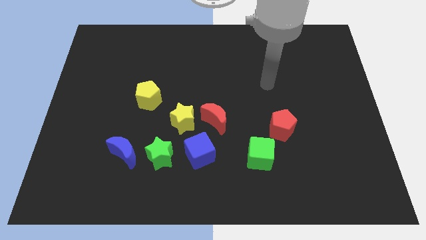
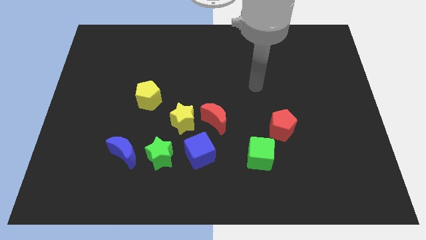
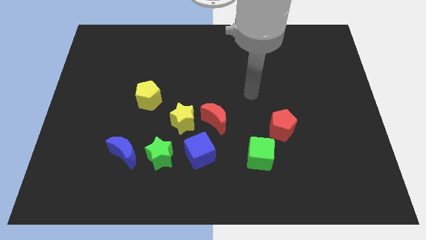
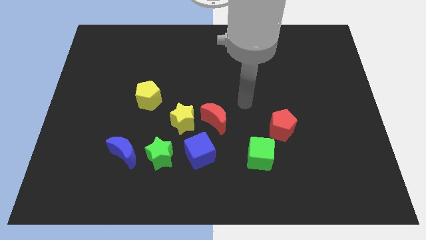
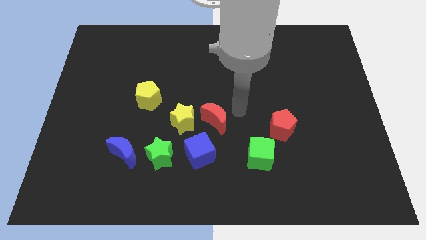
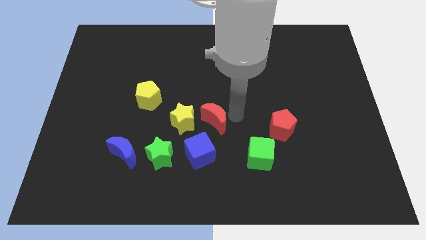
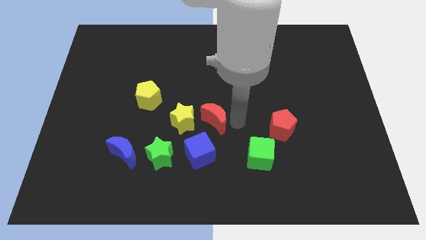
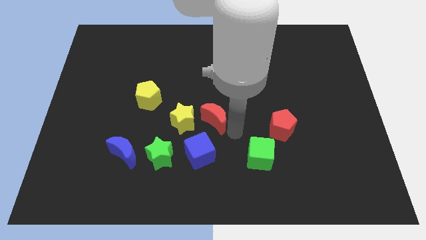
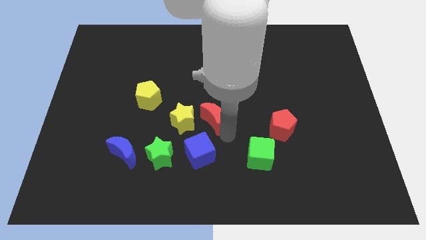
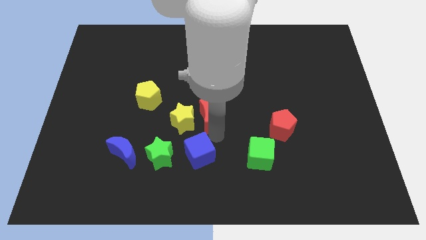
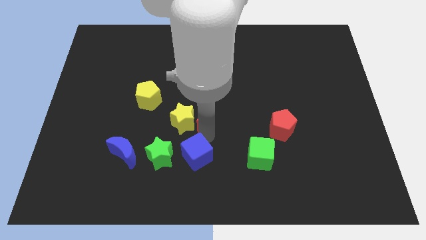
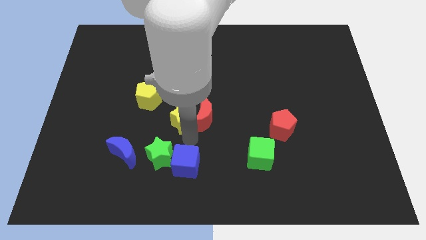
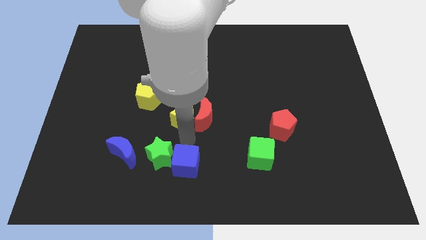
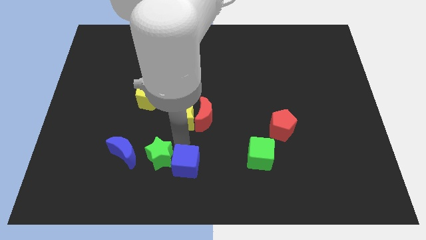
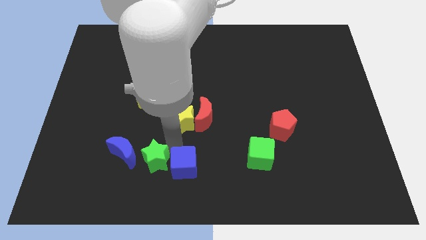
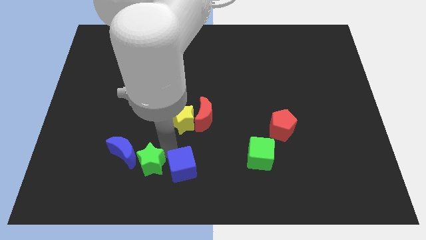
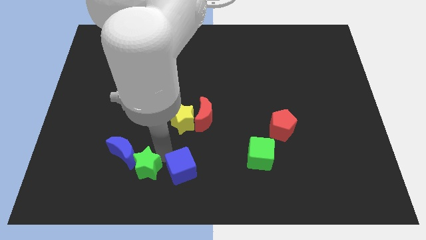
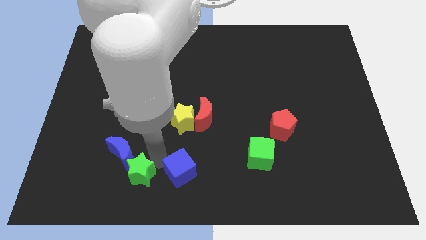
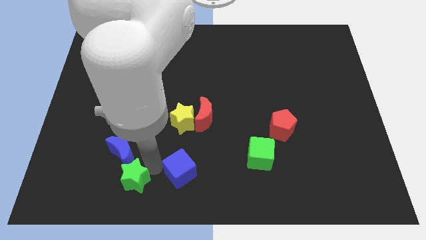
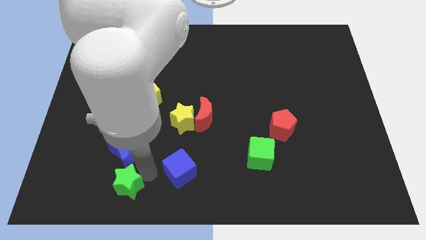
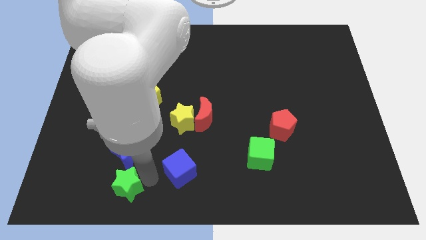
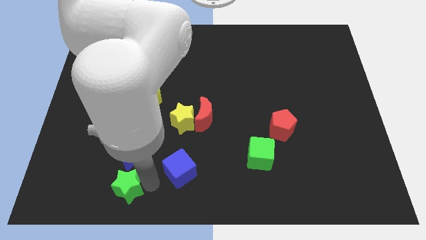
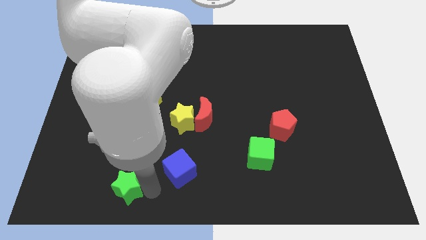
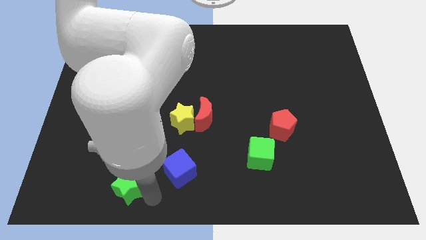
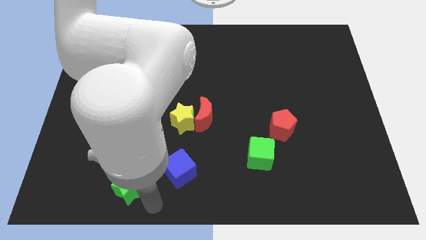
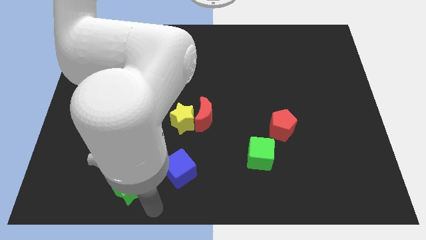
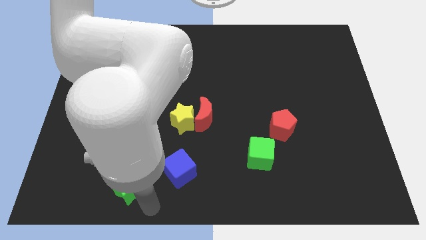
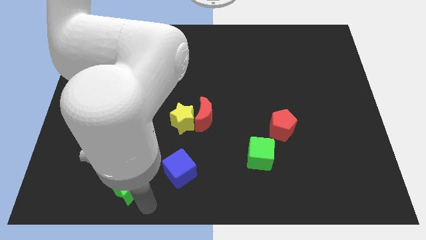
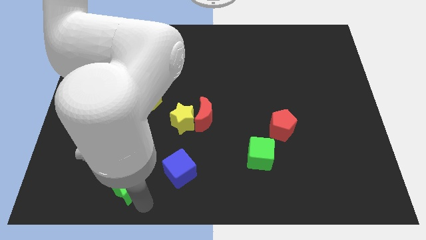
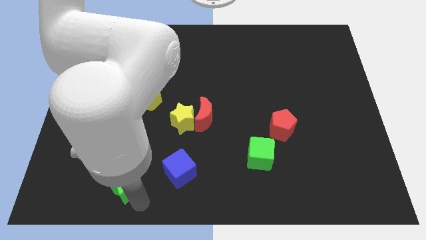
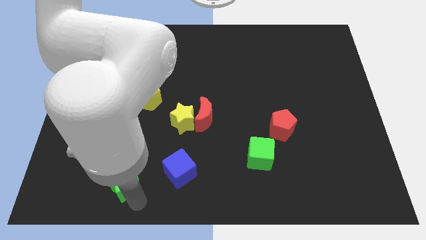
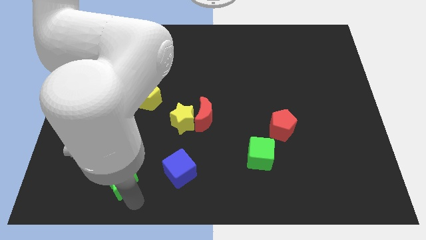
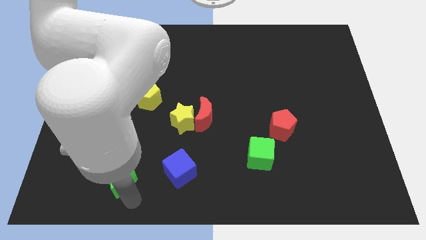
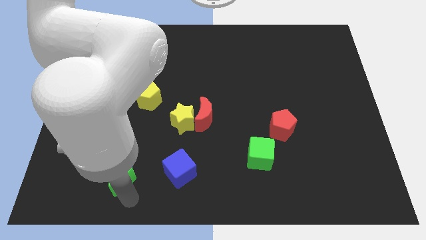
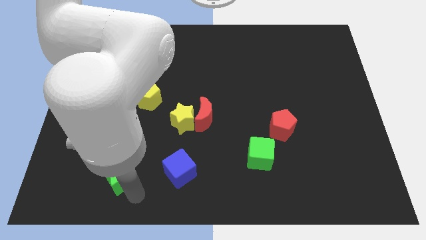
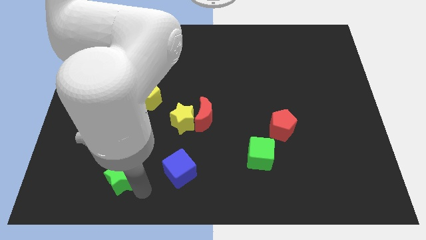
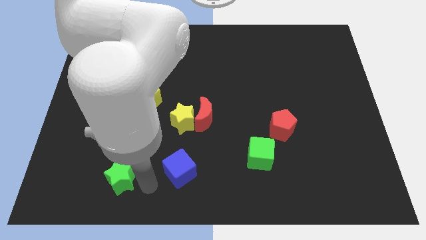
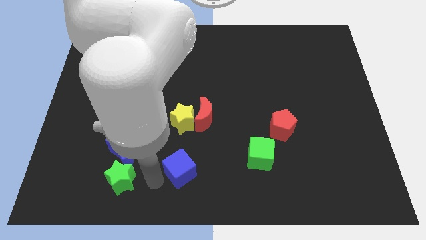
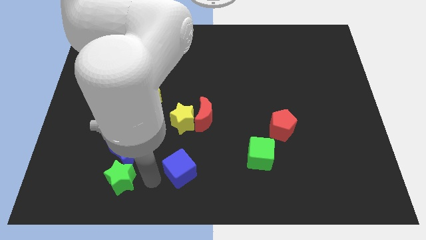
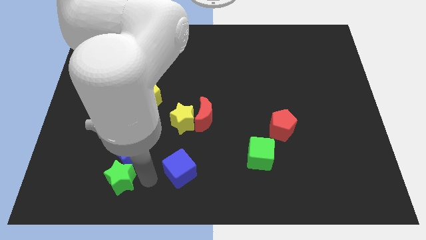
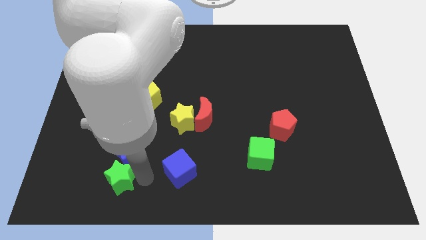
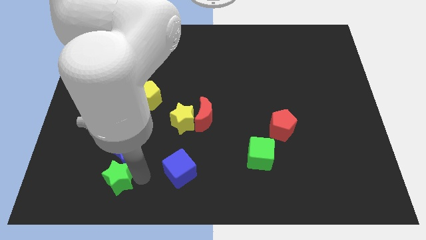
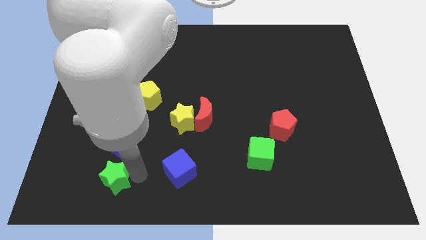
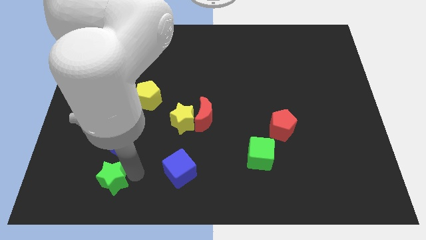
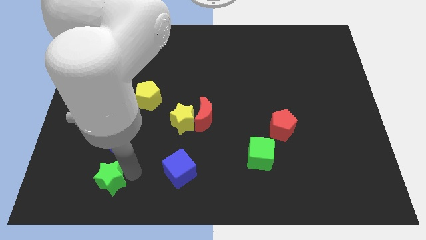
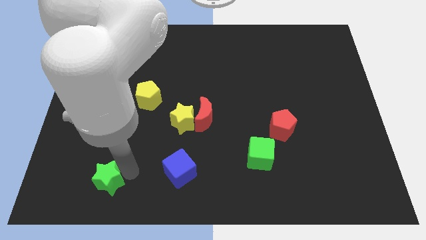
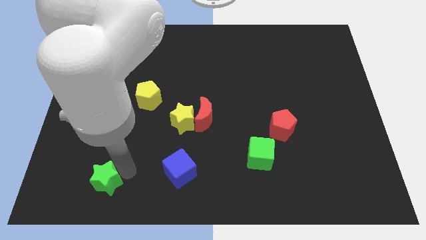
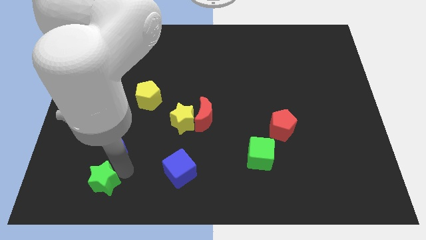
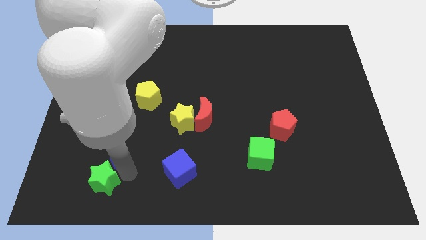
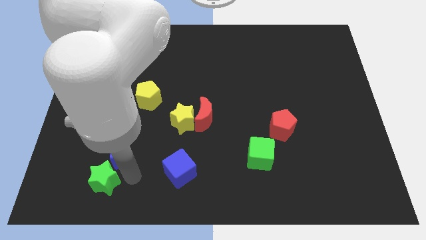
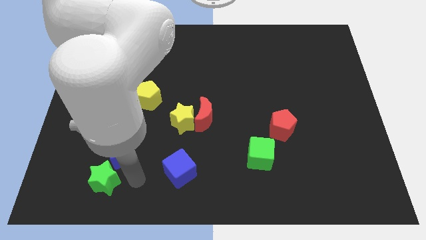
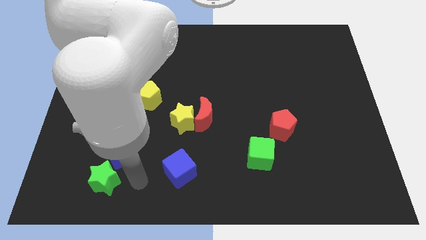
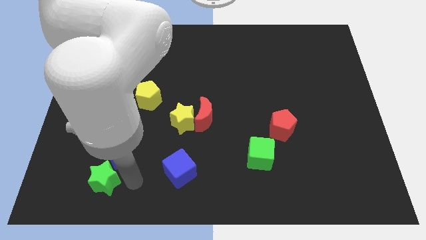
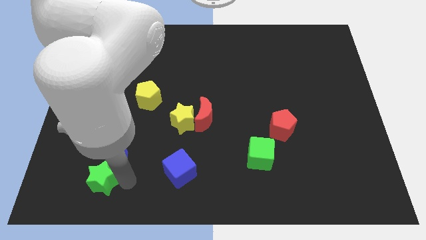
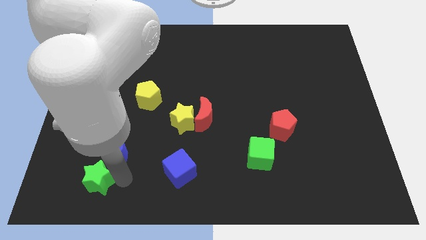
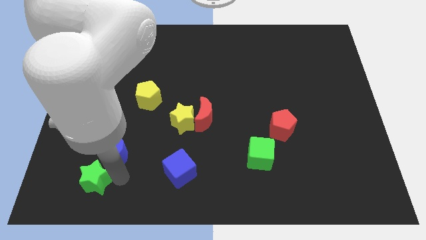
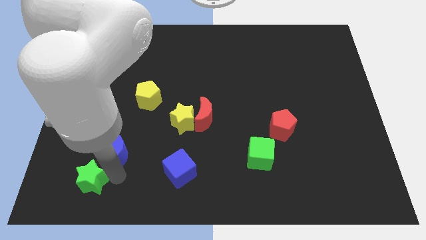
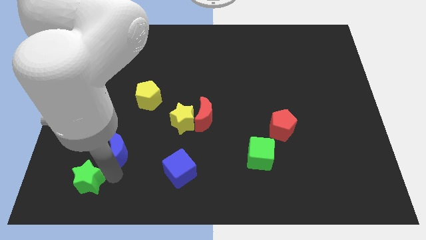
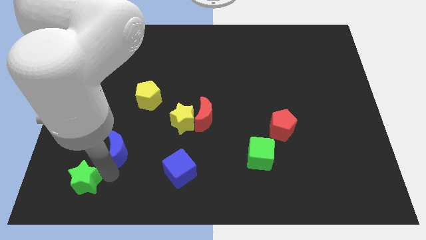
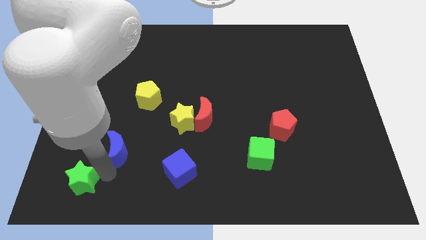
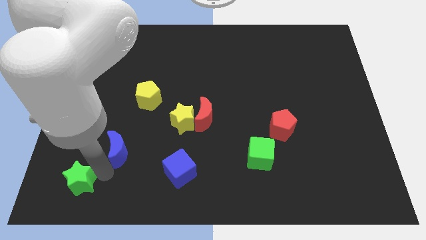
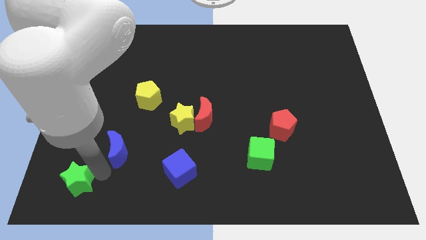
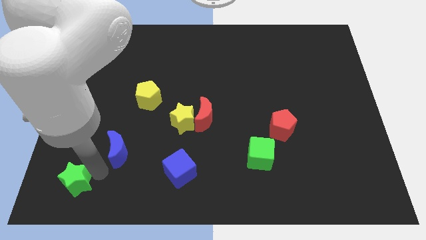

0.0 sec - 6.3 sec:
push the green star to the bottom left corner
